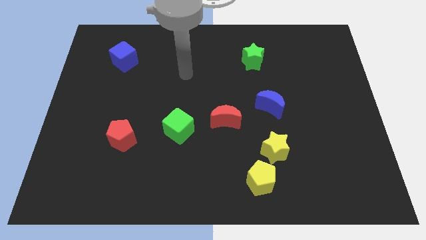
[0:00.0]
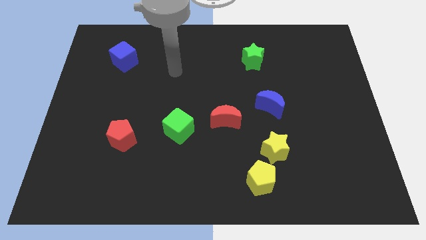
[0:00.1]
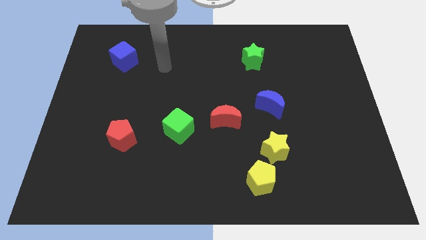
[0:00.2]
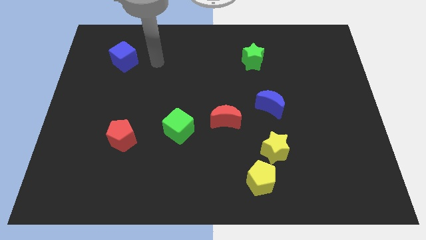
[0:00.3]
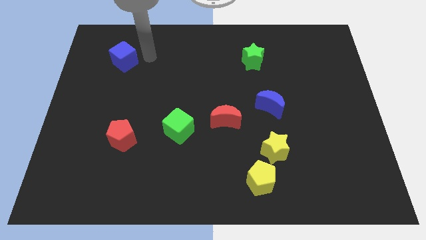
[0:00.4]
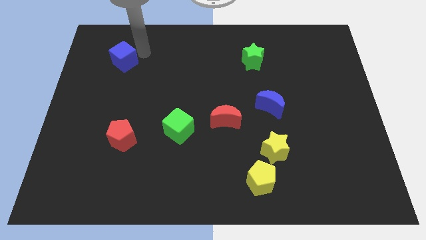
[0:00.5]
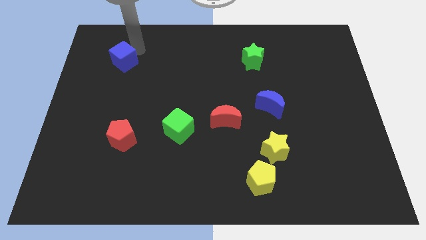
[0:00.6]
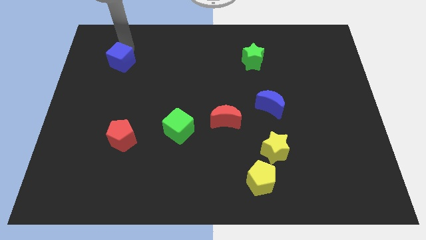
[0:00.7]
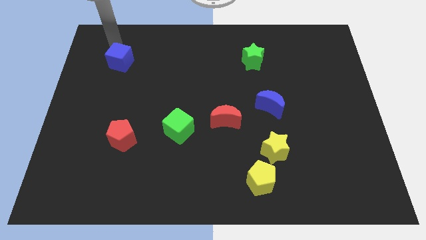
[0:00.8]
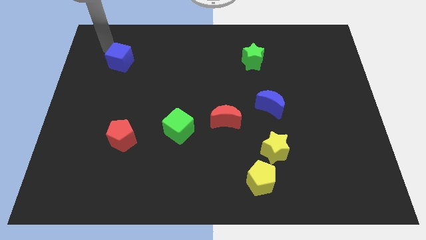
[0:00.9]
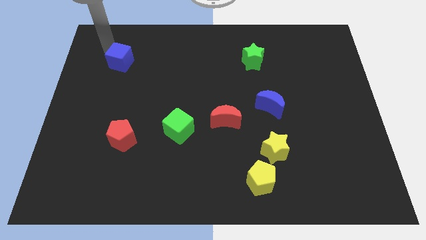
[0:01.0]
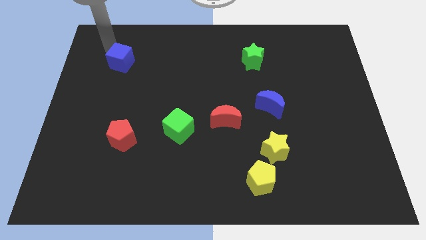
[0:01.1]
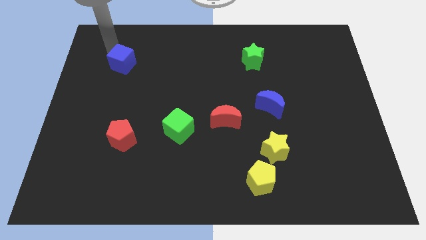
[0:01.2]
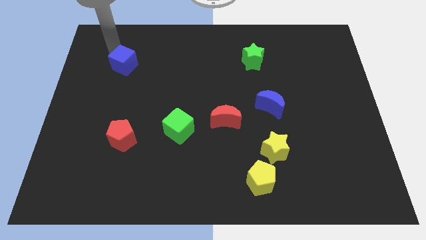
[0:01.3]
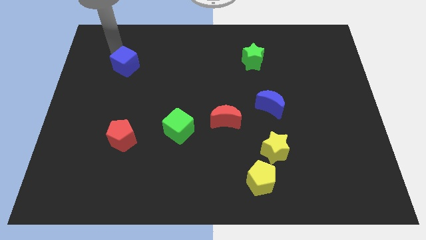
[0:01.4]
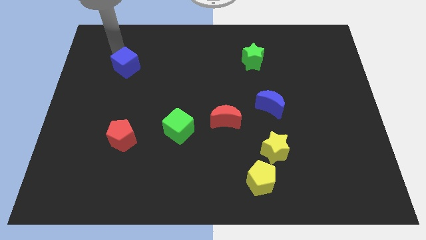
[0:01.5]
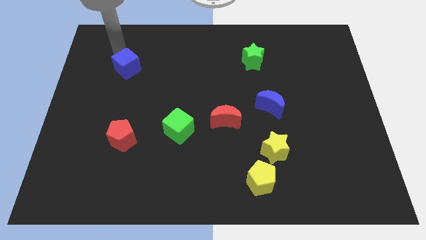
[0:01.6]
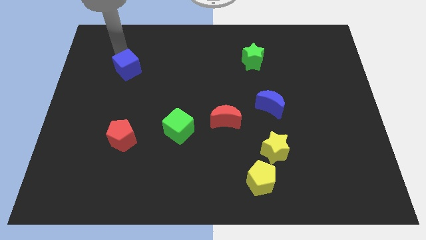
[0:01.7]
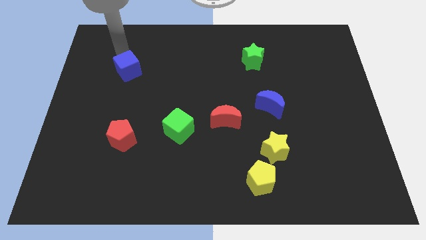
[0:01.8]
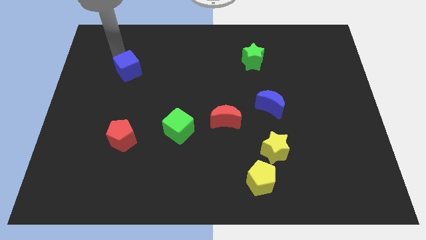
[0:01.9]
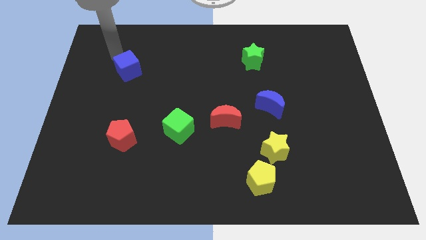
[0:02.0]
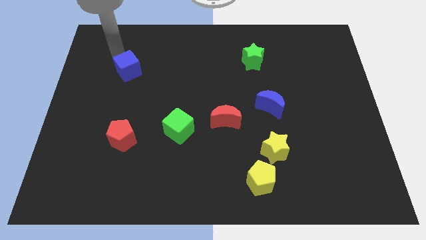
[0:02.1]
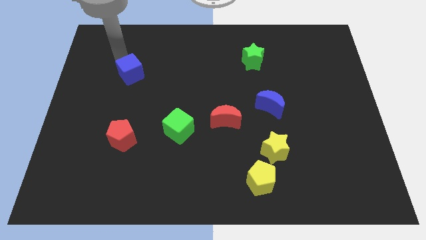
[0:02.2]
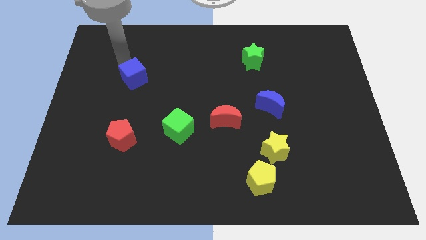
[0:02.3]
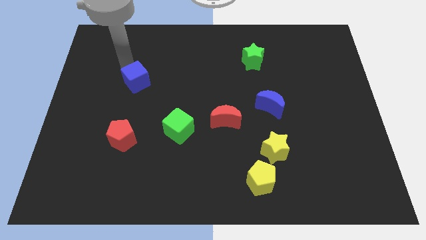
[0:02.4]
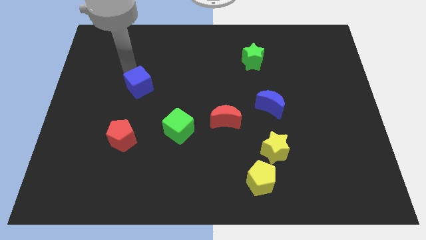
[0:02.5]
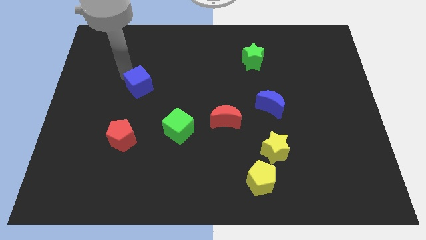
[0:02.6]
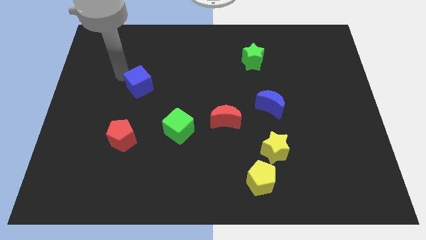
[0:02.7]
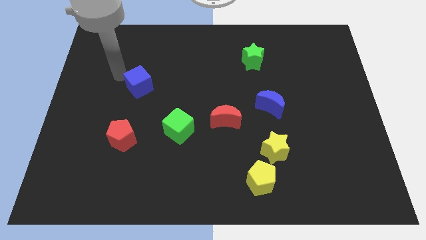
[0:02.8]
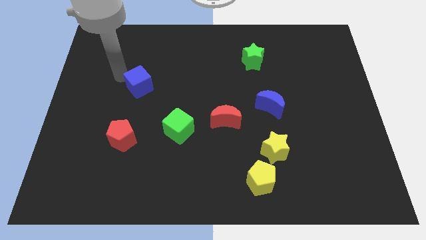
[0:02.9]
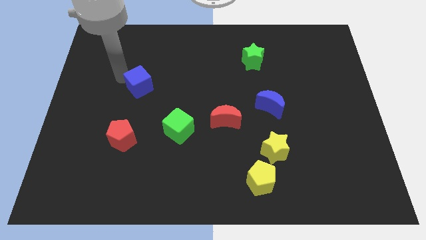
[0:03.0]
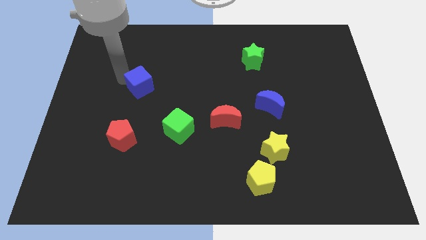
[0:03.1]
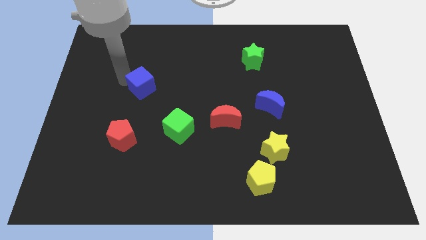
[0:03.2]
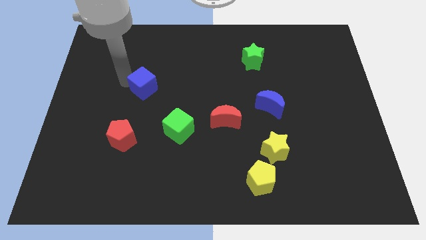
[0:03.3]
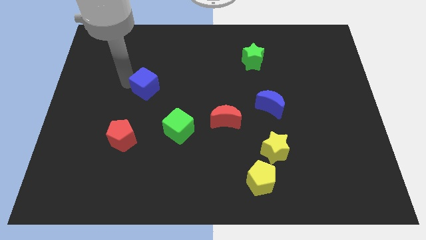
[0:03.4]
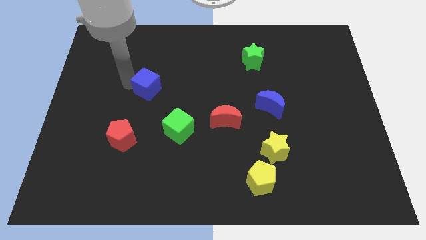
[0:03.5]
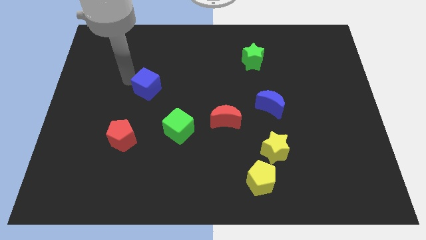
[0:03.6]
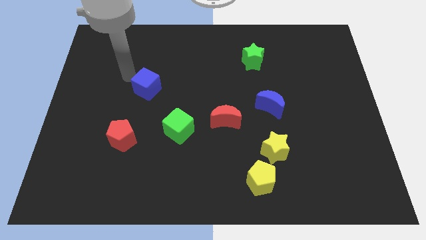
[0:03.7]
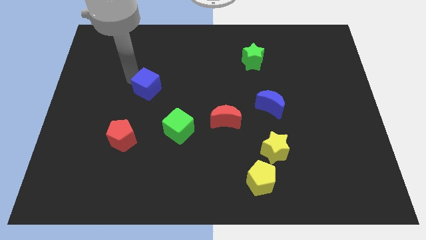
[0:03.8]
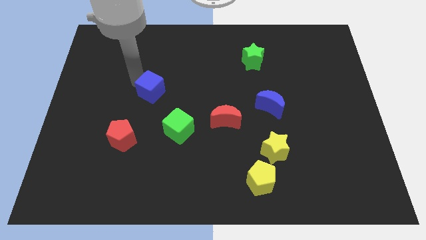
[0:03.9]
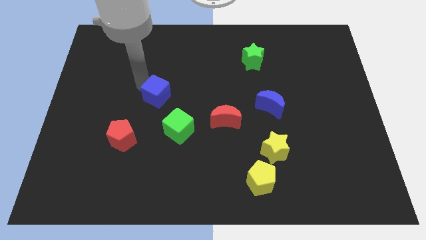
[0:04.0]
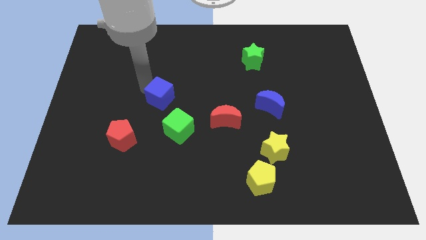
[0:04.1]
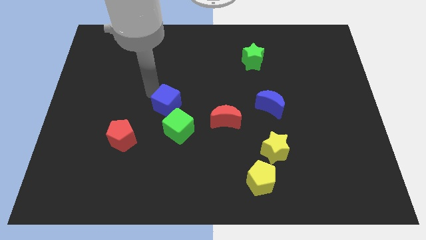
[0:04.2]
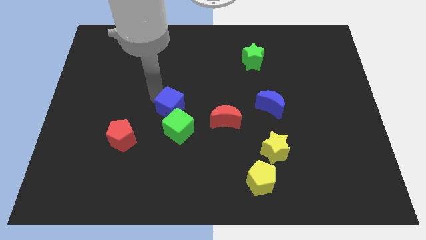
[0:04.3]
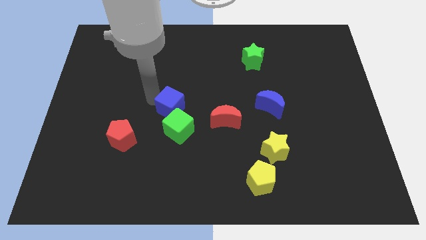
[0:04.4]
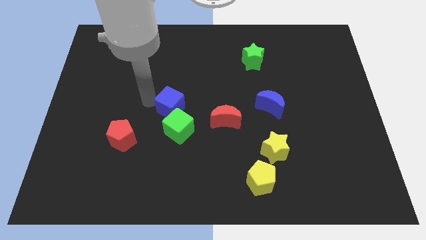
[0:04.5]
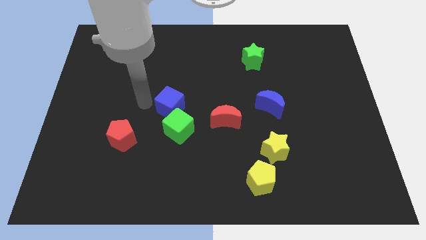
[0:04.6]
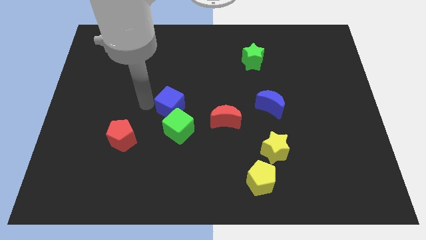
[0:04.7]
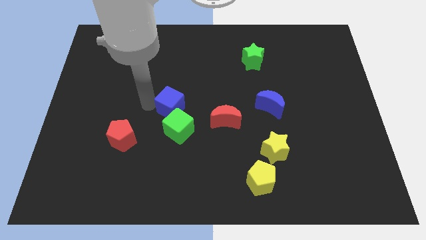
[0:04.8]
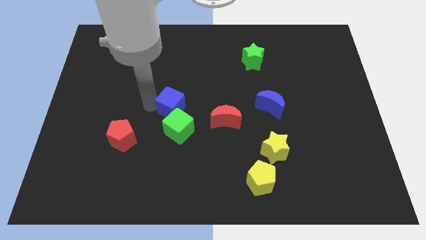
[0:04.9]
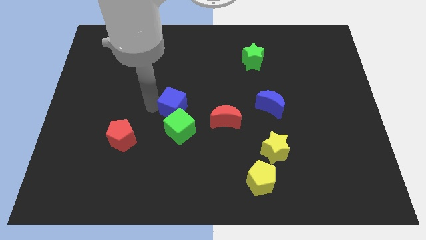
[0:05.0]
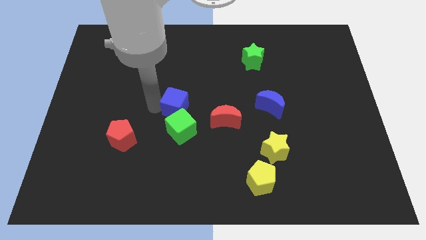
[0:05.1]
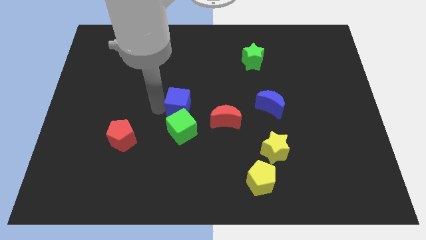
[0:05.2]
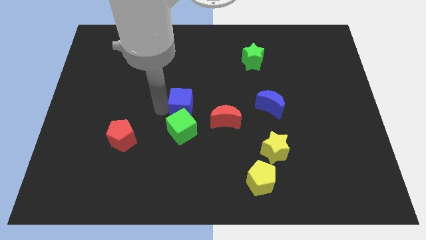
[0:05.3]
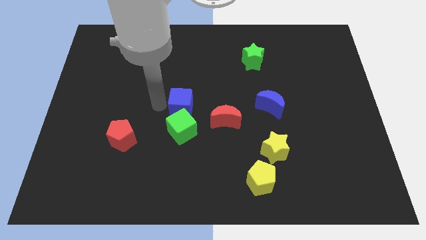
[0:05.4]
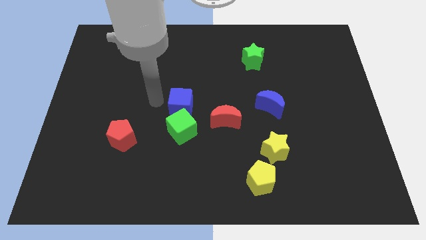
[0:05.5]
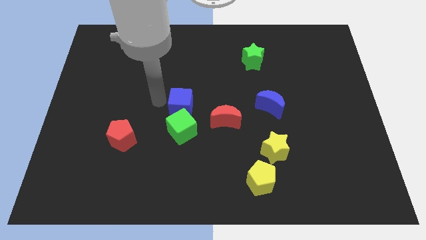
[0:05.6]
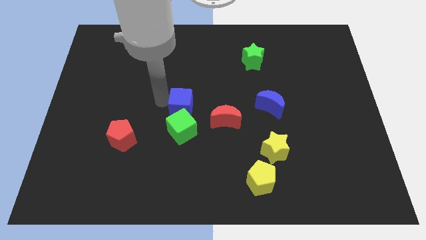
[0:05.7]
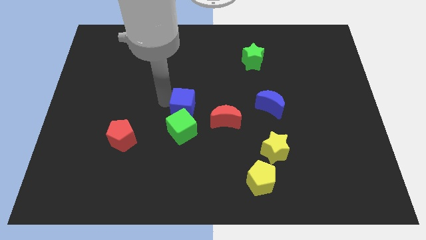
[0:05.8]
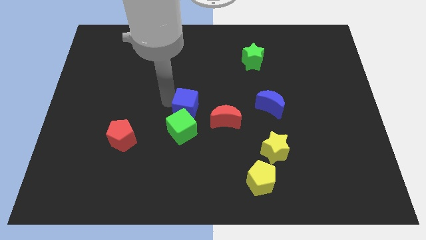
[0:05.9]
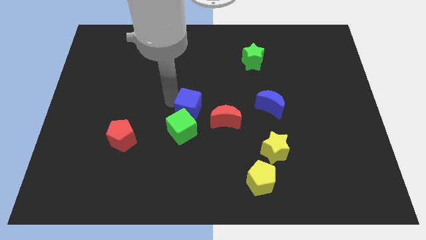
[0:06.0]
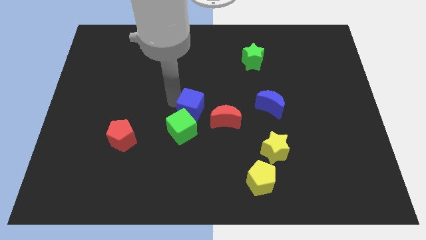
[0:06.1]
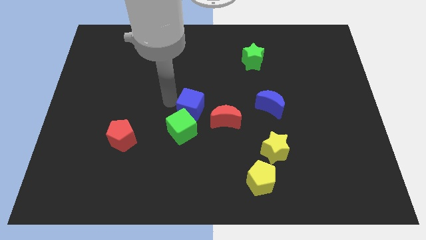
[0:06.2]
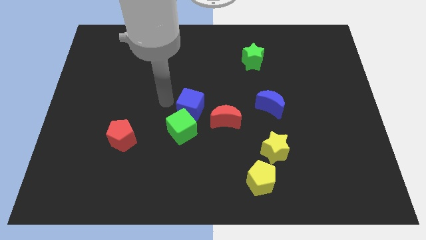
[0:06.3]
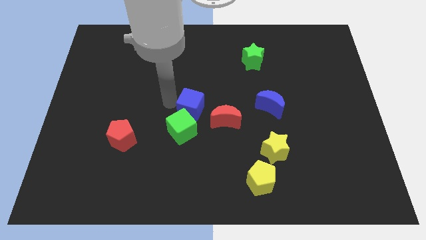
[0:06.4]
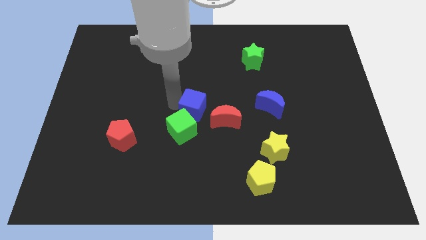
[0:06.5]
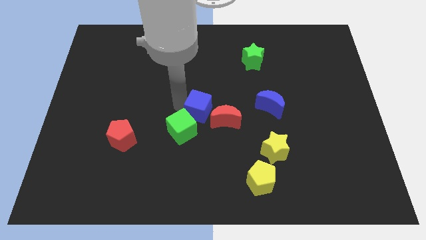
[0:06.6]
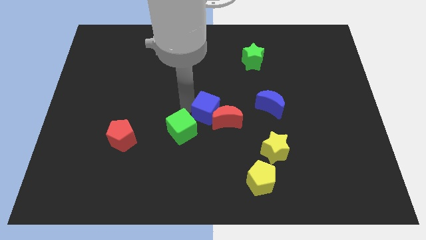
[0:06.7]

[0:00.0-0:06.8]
push the blue cube close to the red moon

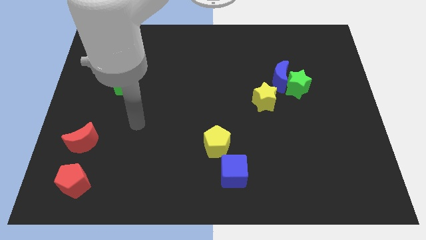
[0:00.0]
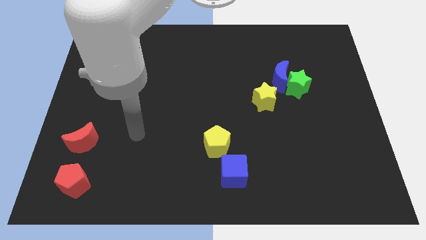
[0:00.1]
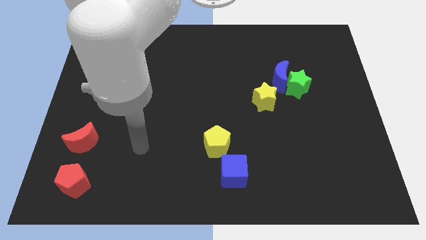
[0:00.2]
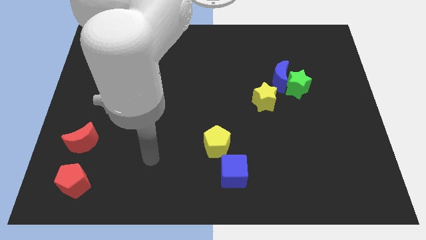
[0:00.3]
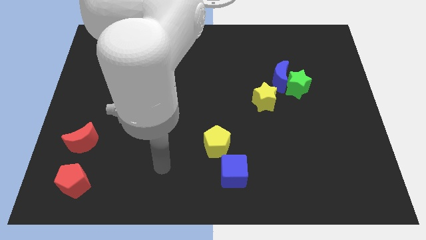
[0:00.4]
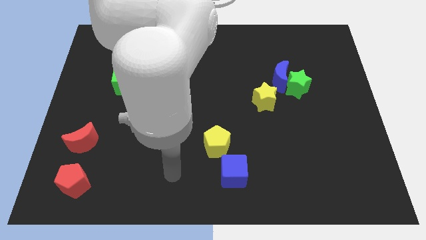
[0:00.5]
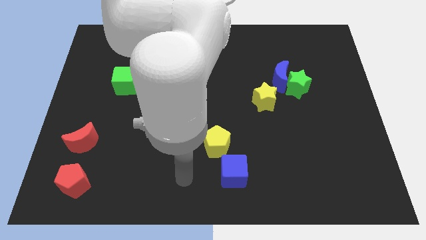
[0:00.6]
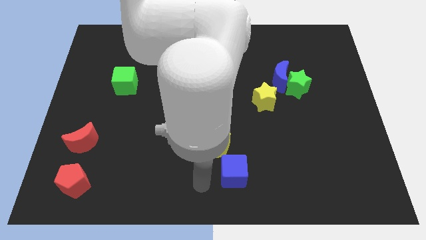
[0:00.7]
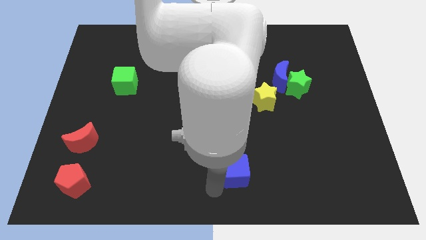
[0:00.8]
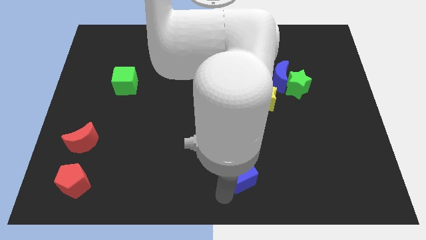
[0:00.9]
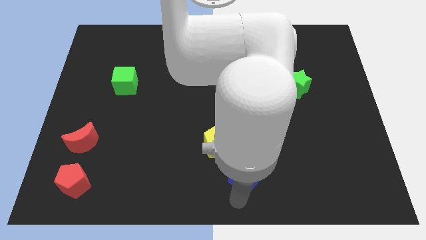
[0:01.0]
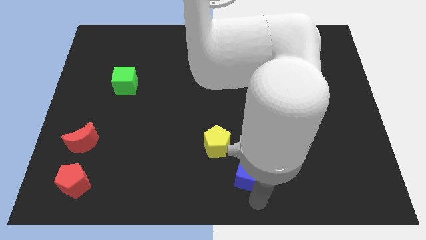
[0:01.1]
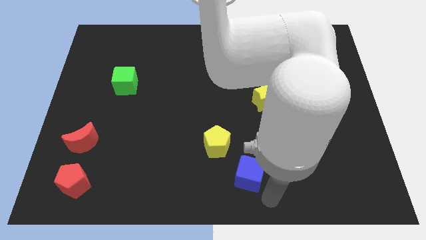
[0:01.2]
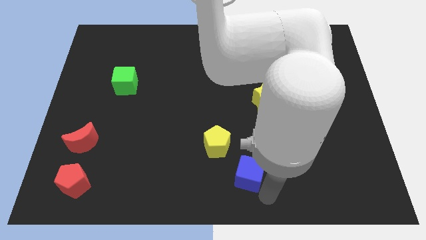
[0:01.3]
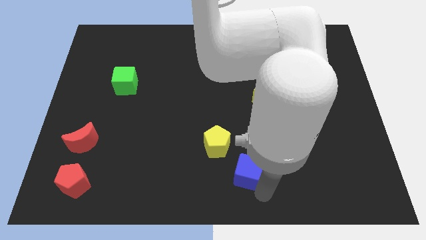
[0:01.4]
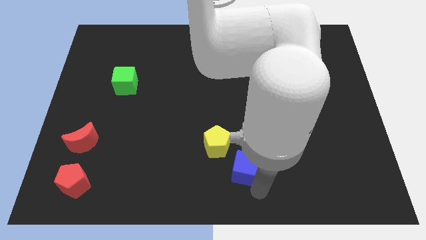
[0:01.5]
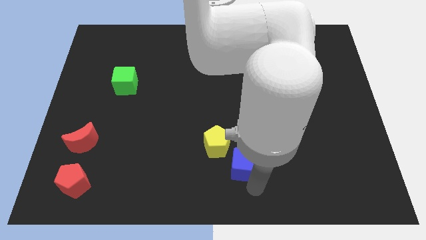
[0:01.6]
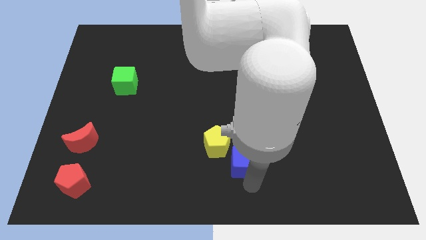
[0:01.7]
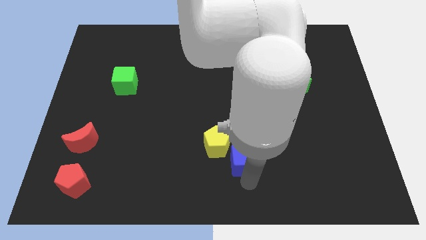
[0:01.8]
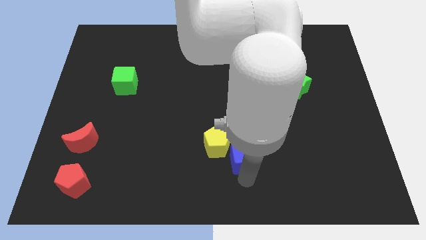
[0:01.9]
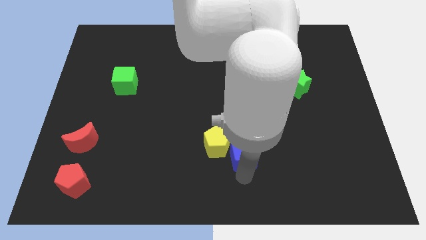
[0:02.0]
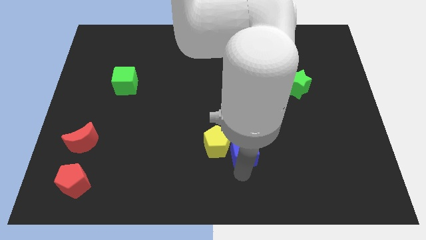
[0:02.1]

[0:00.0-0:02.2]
move the blue cube close to the yellow pentagon
